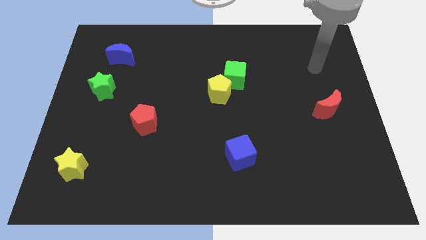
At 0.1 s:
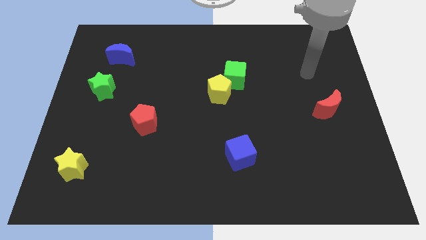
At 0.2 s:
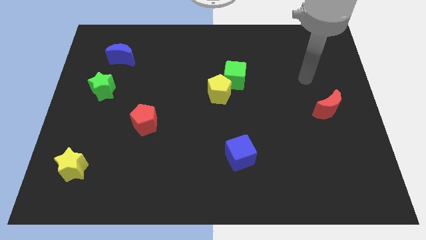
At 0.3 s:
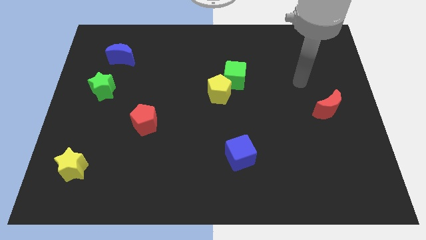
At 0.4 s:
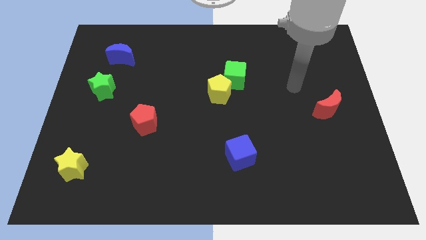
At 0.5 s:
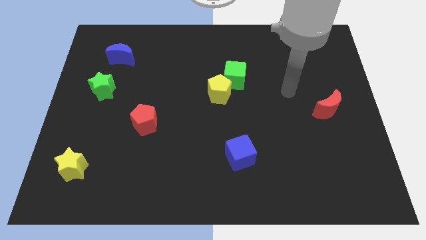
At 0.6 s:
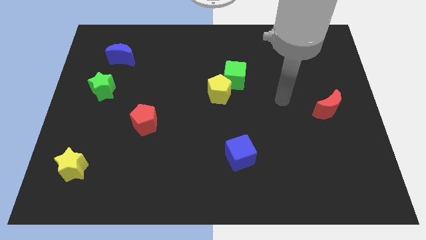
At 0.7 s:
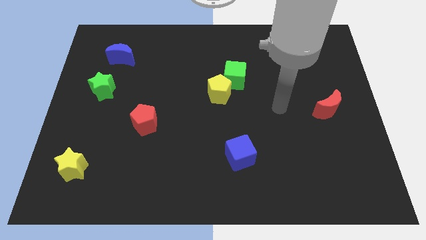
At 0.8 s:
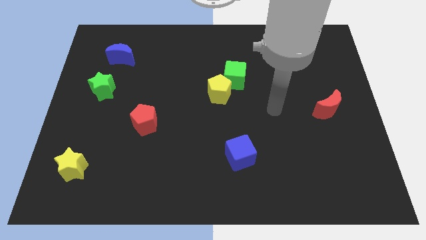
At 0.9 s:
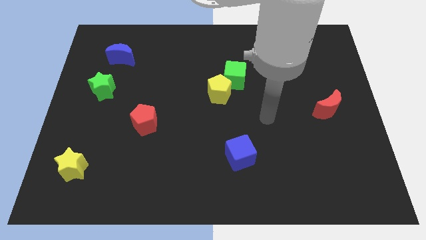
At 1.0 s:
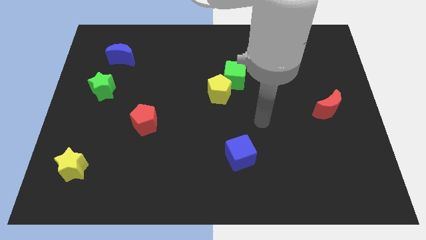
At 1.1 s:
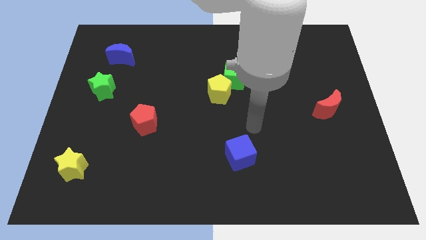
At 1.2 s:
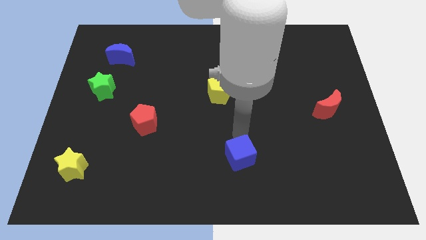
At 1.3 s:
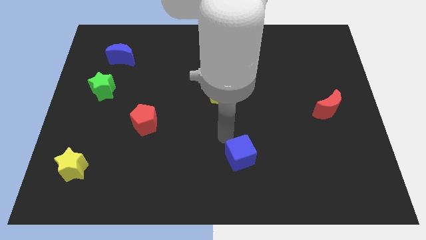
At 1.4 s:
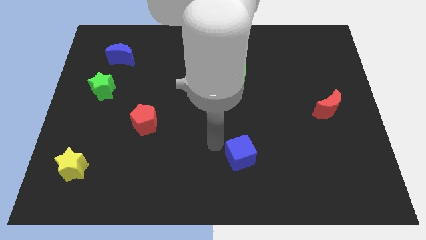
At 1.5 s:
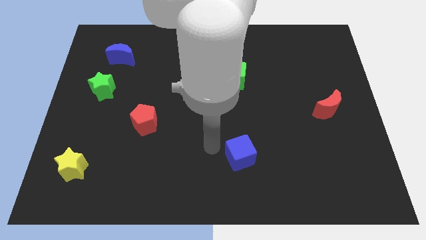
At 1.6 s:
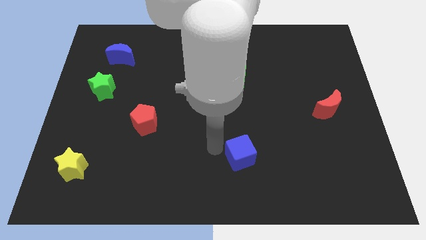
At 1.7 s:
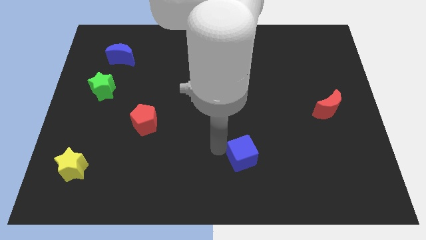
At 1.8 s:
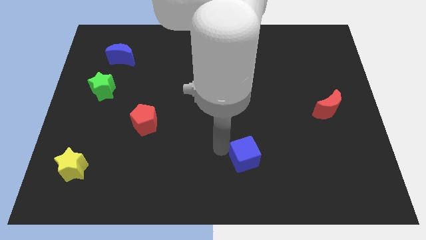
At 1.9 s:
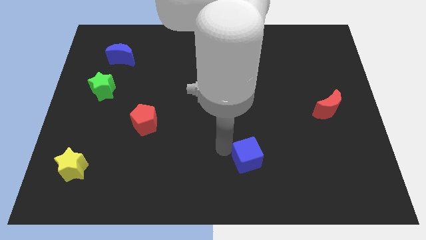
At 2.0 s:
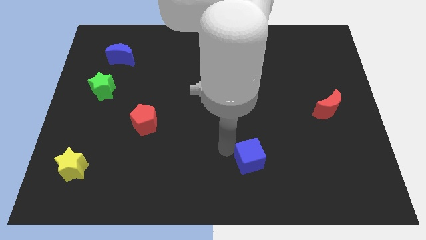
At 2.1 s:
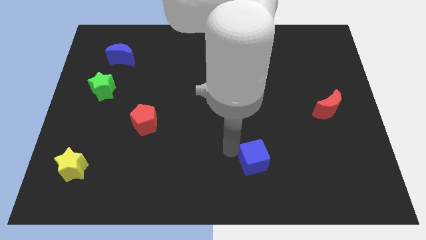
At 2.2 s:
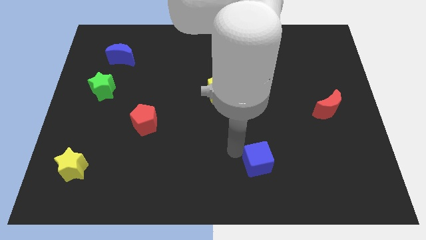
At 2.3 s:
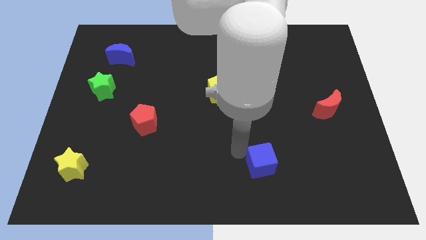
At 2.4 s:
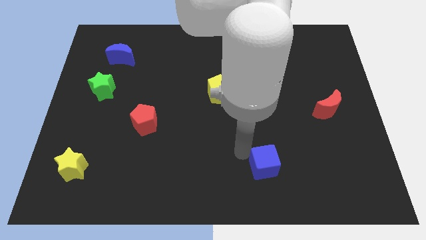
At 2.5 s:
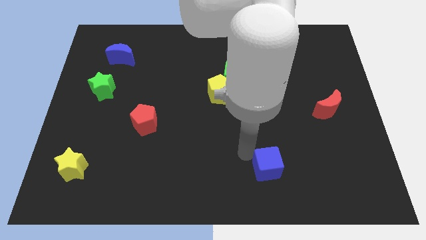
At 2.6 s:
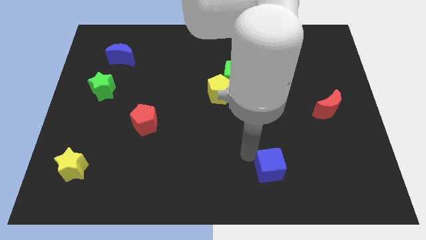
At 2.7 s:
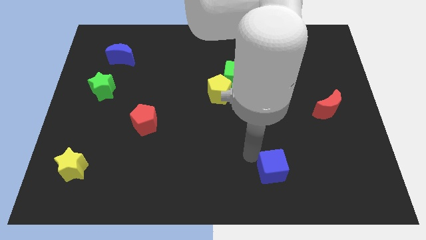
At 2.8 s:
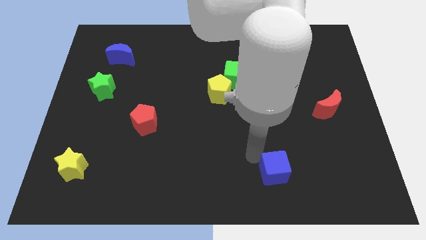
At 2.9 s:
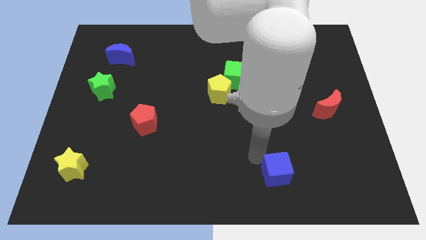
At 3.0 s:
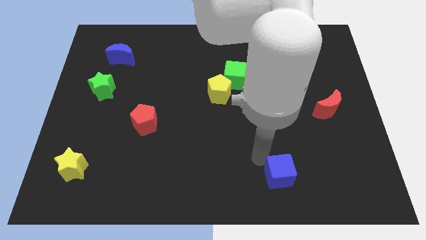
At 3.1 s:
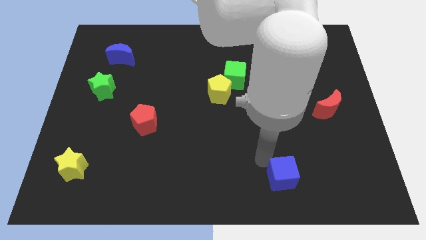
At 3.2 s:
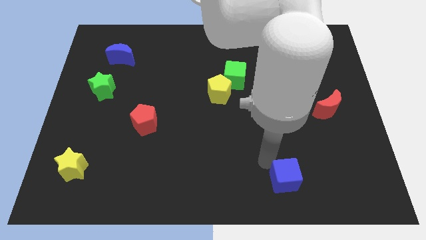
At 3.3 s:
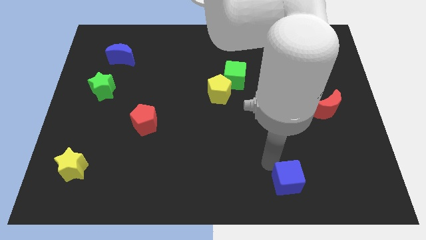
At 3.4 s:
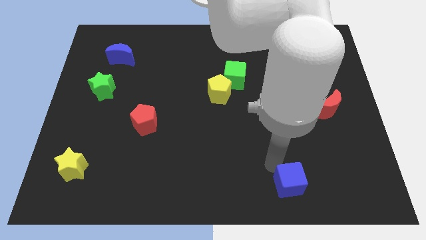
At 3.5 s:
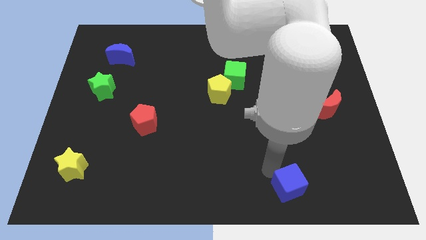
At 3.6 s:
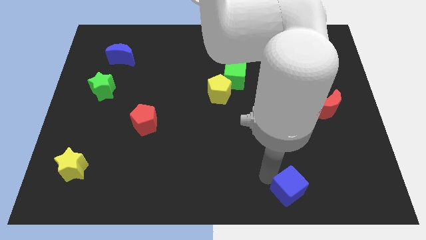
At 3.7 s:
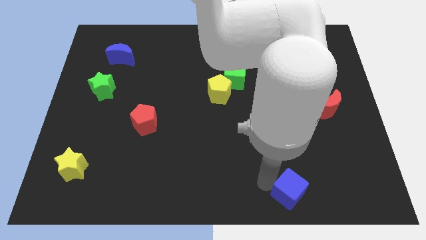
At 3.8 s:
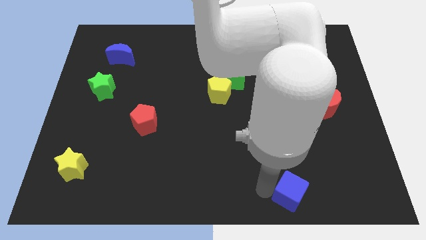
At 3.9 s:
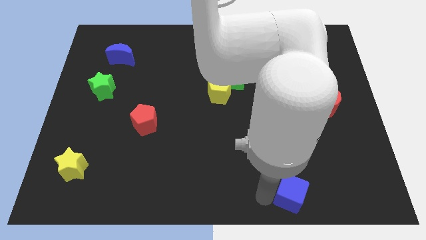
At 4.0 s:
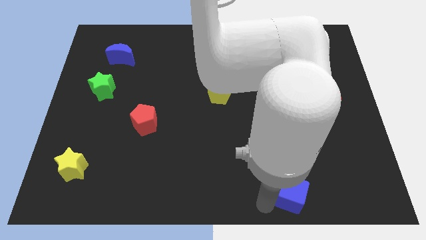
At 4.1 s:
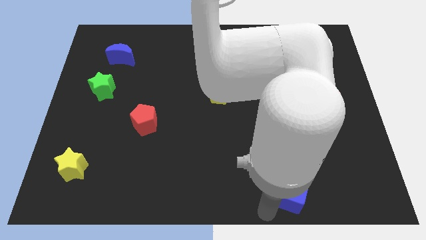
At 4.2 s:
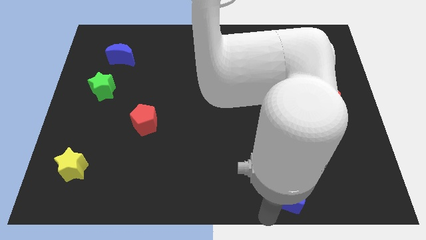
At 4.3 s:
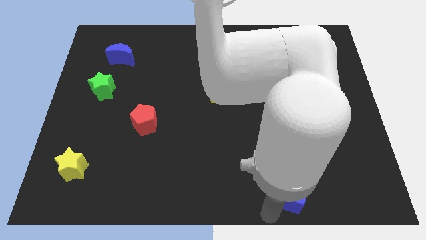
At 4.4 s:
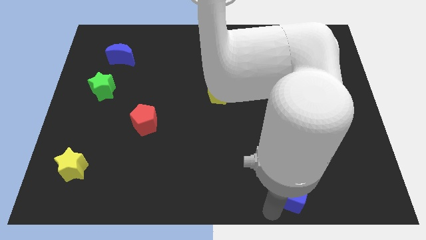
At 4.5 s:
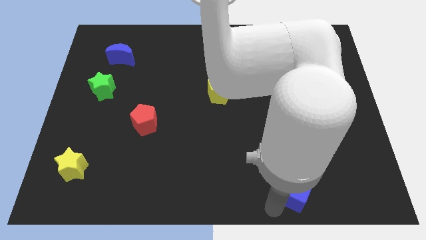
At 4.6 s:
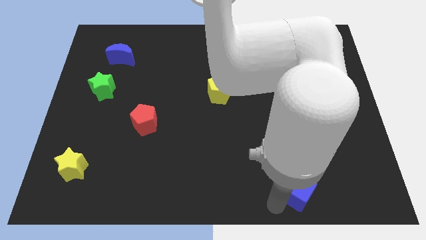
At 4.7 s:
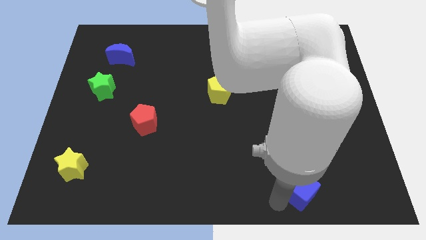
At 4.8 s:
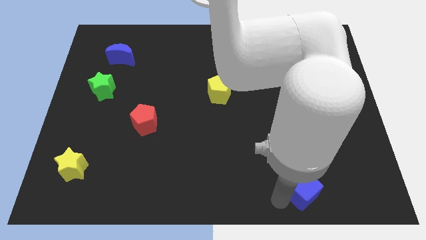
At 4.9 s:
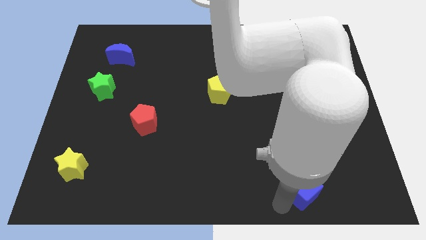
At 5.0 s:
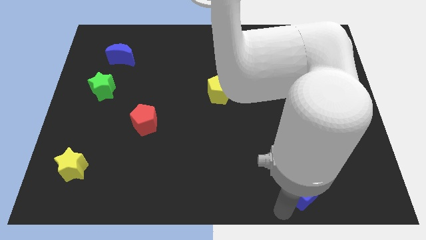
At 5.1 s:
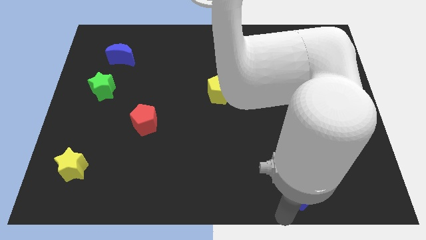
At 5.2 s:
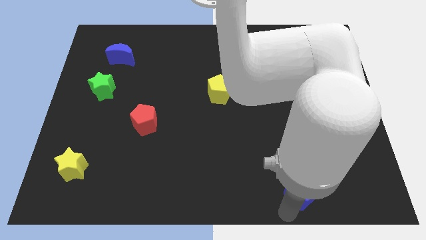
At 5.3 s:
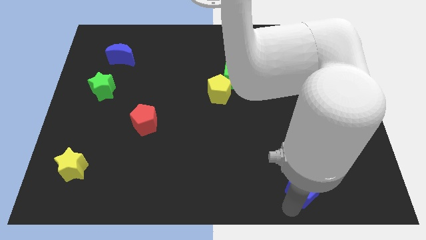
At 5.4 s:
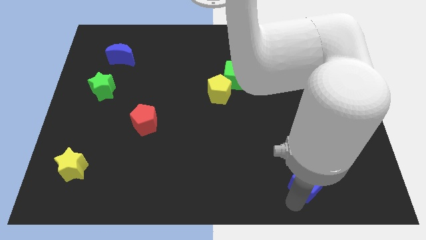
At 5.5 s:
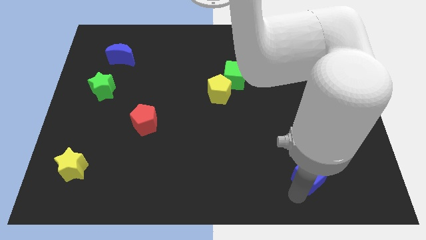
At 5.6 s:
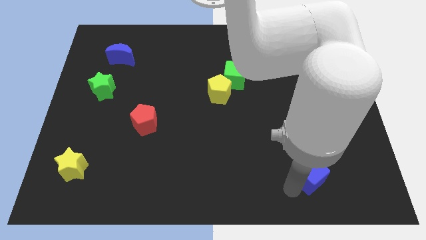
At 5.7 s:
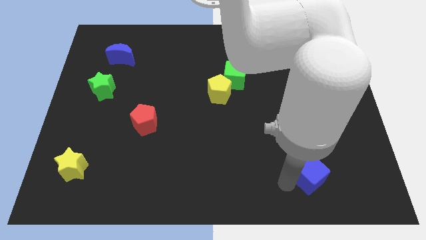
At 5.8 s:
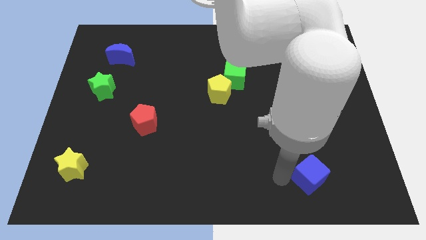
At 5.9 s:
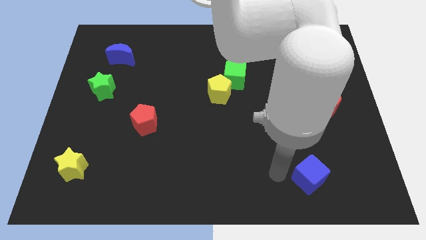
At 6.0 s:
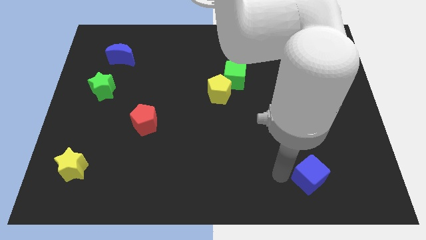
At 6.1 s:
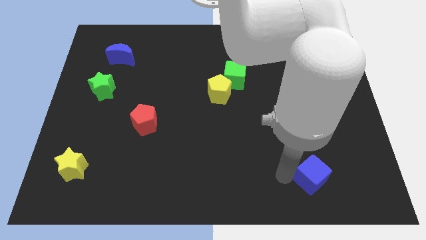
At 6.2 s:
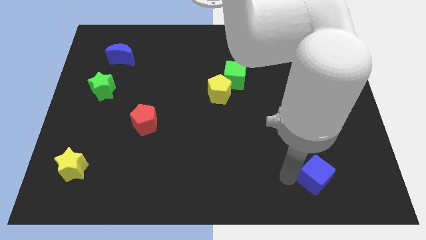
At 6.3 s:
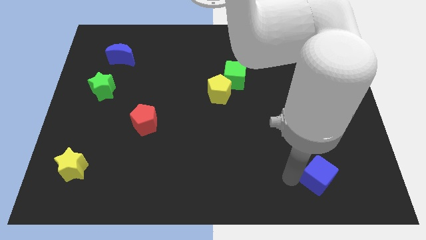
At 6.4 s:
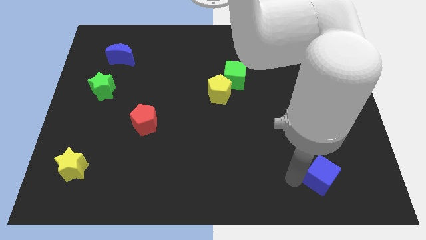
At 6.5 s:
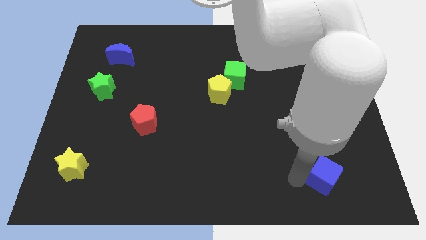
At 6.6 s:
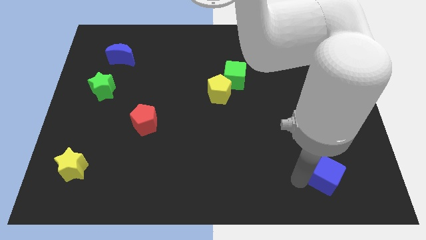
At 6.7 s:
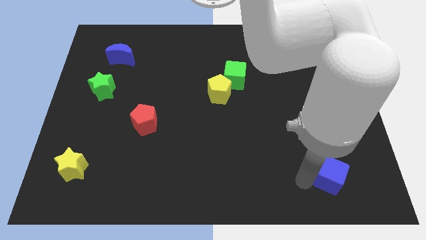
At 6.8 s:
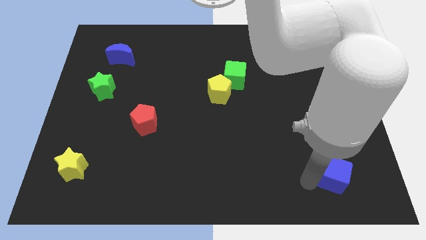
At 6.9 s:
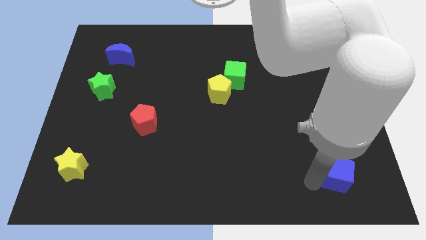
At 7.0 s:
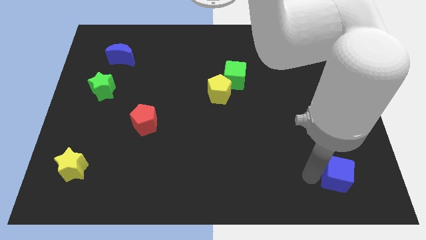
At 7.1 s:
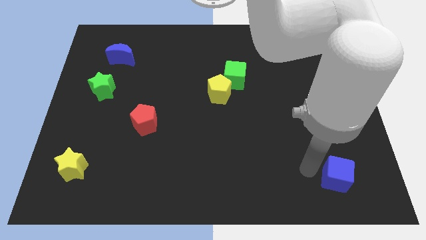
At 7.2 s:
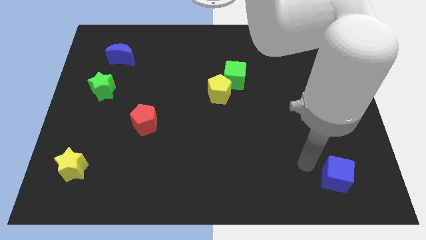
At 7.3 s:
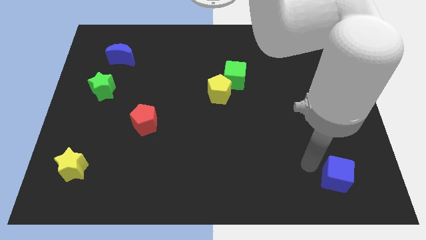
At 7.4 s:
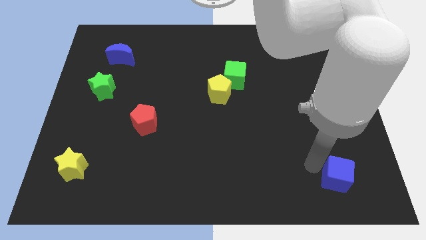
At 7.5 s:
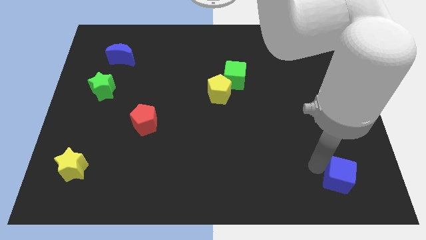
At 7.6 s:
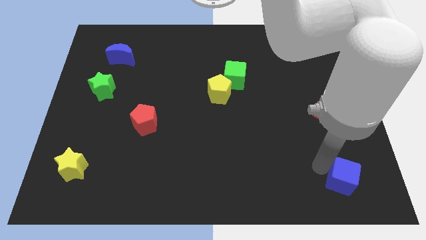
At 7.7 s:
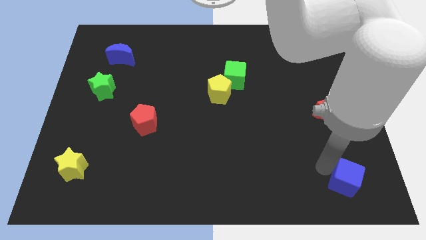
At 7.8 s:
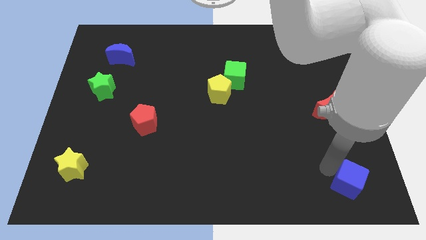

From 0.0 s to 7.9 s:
move the blue cube to the bottom right

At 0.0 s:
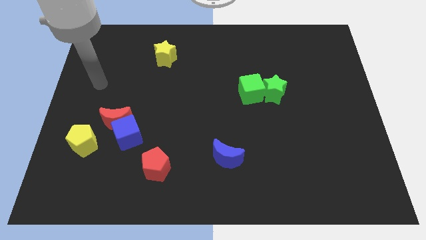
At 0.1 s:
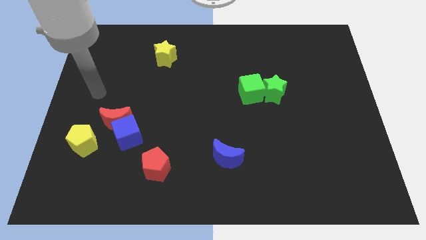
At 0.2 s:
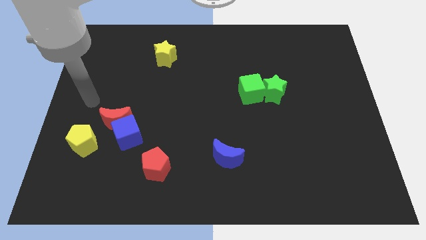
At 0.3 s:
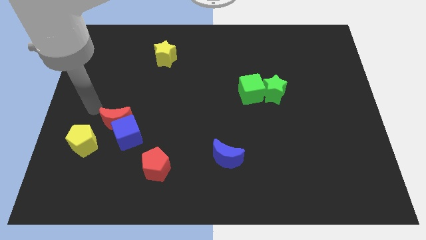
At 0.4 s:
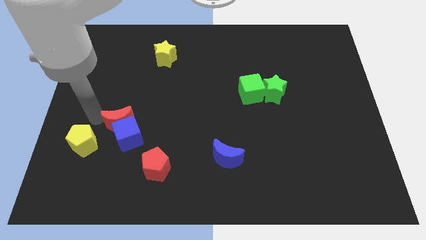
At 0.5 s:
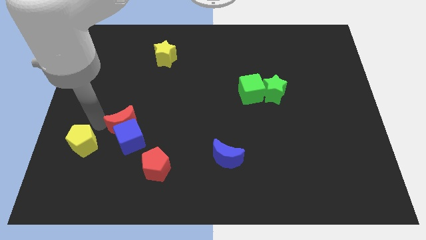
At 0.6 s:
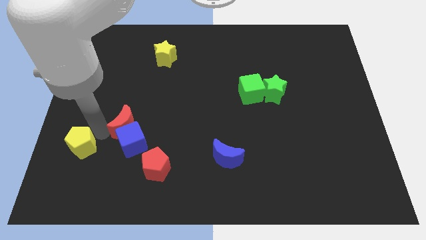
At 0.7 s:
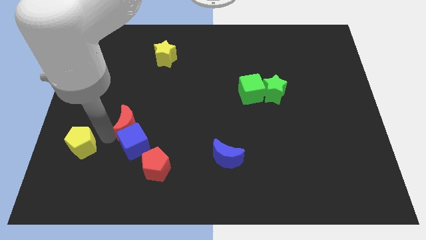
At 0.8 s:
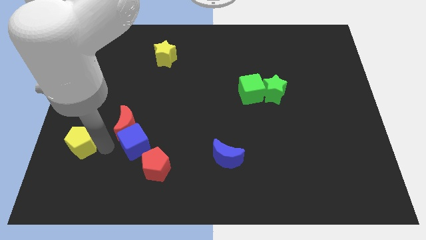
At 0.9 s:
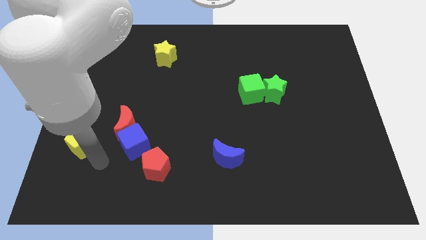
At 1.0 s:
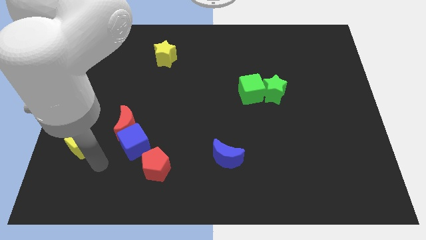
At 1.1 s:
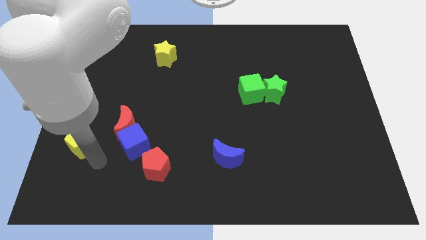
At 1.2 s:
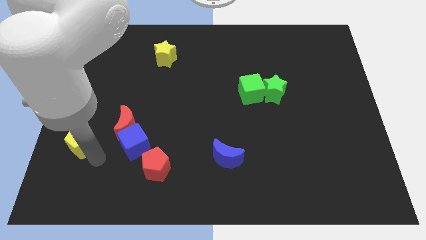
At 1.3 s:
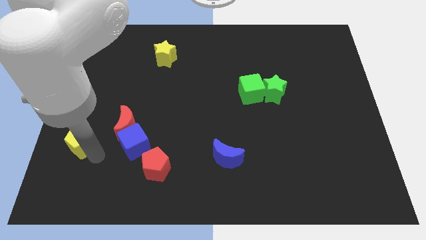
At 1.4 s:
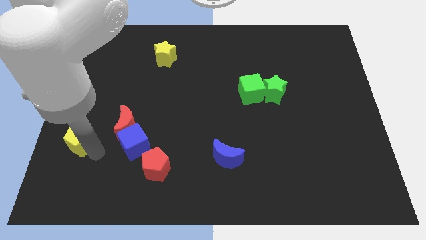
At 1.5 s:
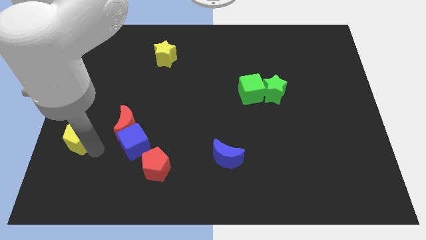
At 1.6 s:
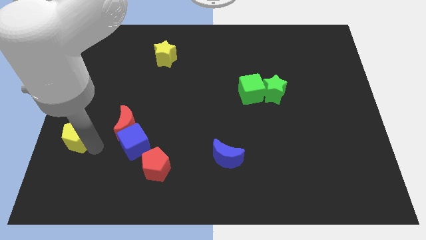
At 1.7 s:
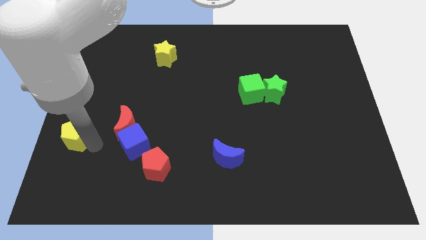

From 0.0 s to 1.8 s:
push the yellow pentagon to the center left
